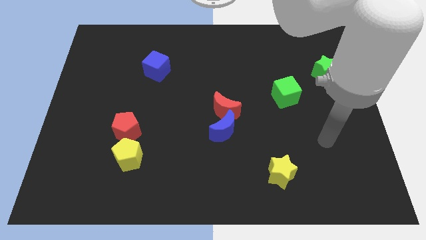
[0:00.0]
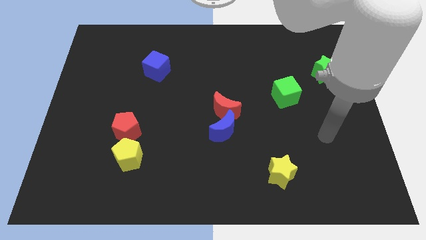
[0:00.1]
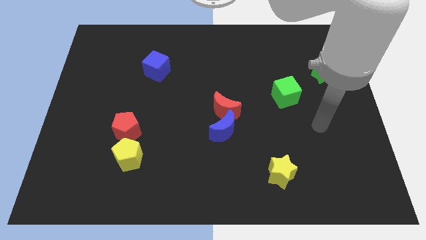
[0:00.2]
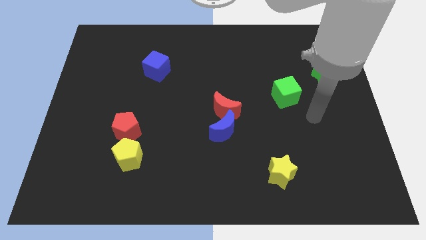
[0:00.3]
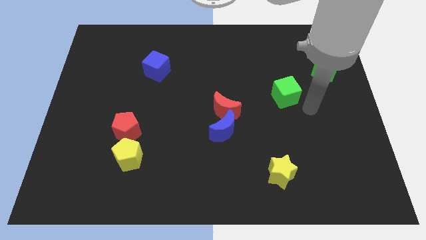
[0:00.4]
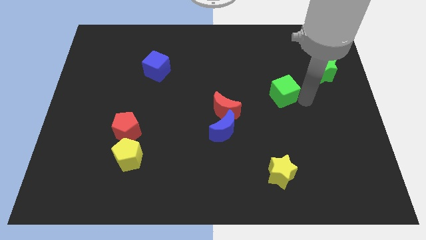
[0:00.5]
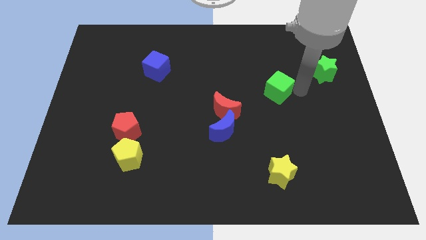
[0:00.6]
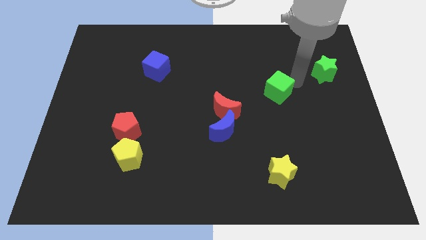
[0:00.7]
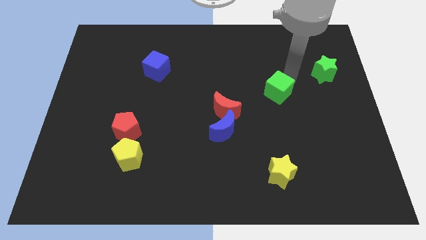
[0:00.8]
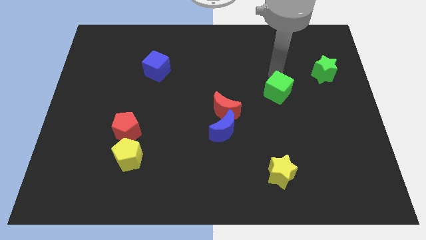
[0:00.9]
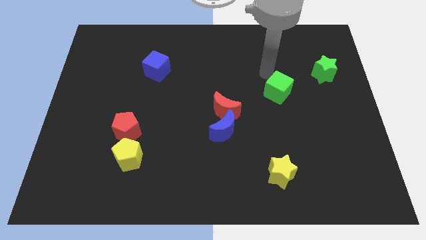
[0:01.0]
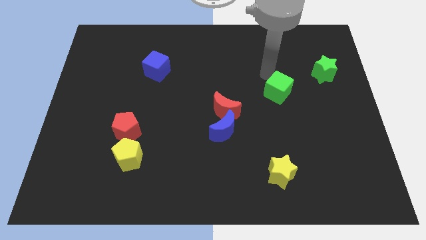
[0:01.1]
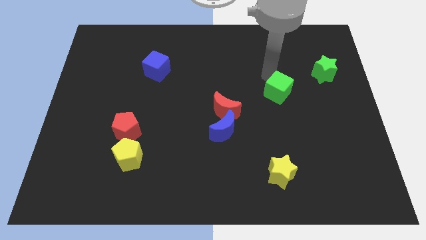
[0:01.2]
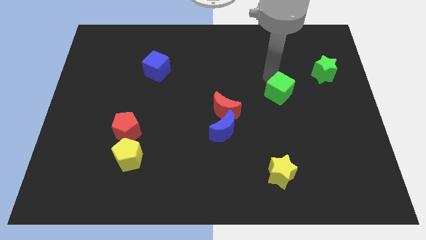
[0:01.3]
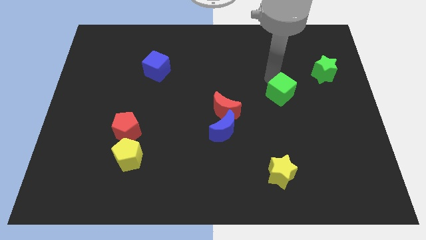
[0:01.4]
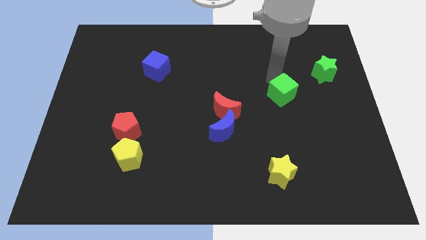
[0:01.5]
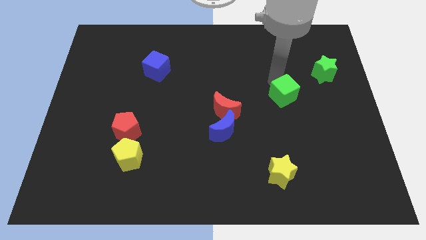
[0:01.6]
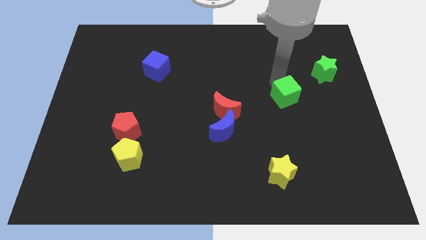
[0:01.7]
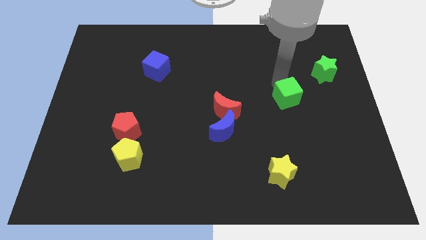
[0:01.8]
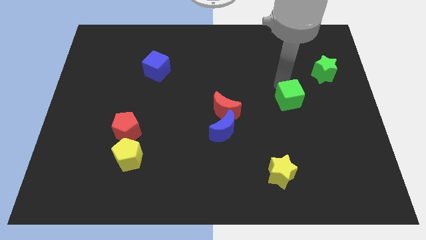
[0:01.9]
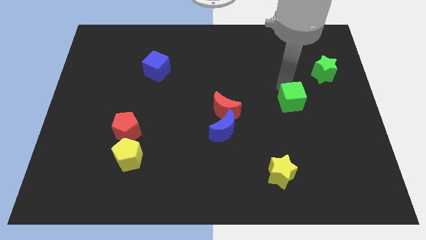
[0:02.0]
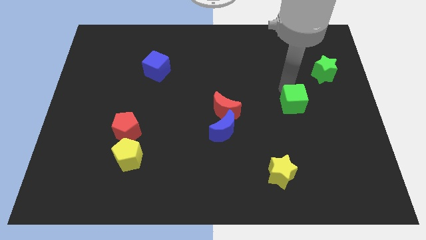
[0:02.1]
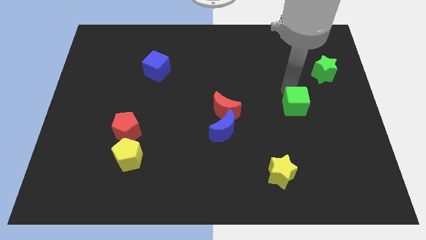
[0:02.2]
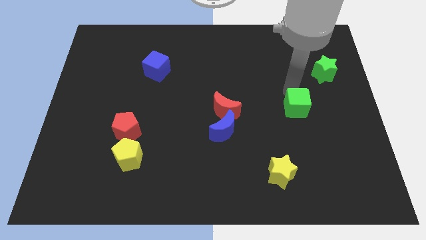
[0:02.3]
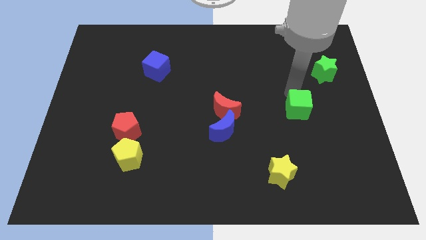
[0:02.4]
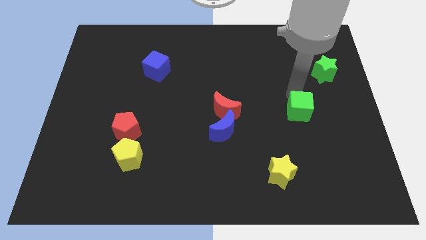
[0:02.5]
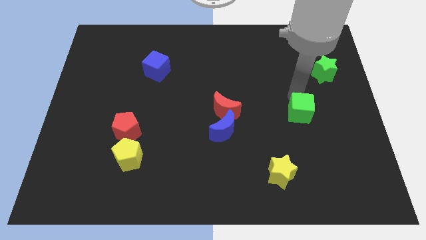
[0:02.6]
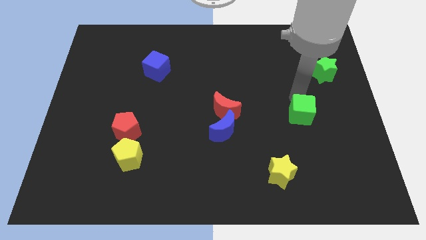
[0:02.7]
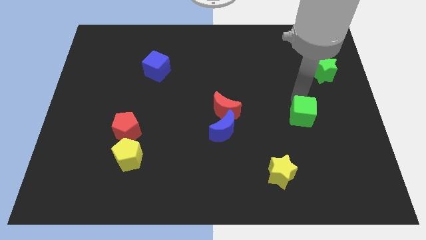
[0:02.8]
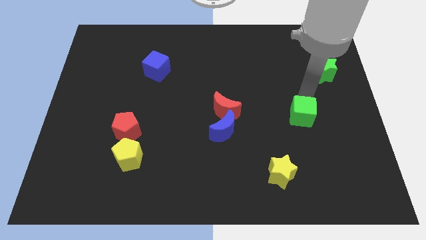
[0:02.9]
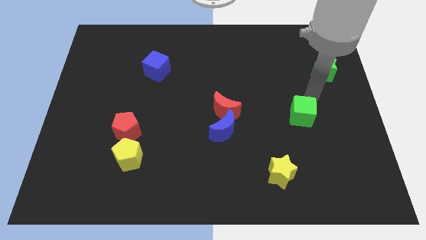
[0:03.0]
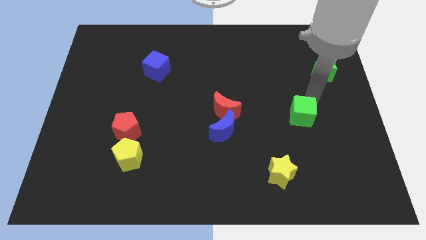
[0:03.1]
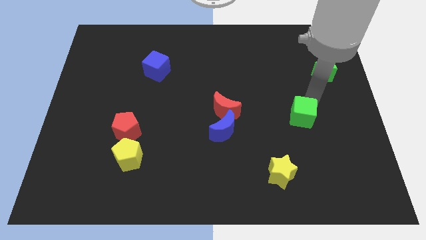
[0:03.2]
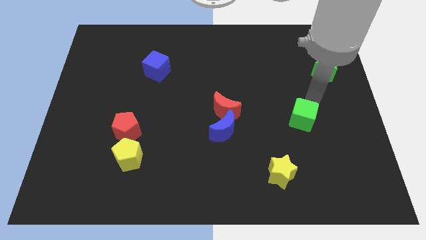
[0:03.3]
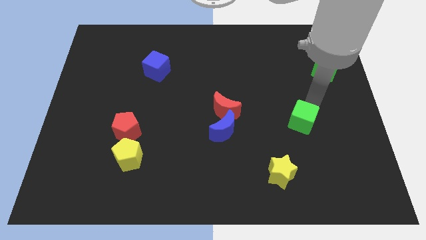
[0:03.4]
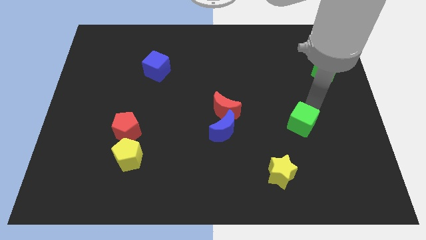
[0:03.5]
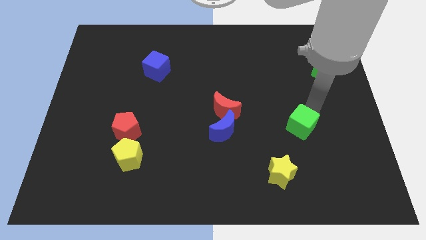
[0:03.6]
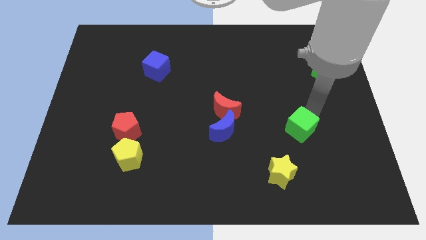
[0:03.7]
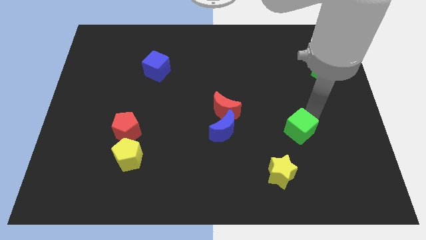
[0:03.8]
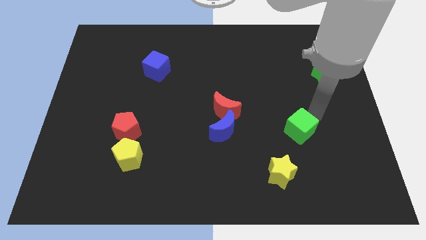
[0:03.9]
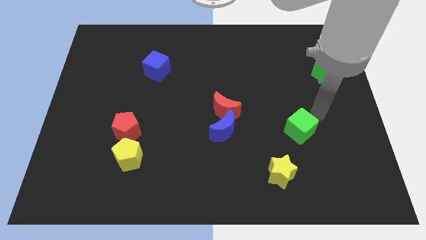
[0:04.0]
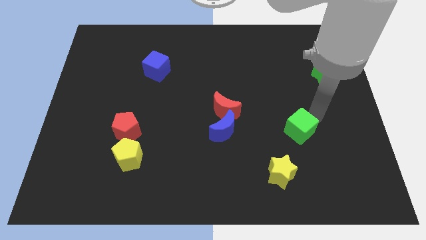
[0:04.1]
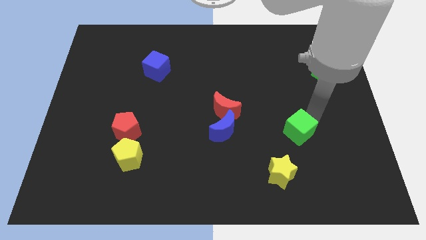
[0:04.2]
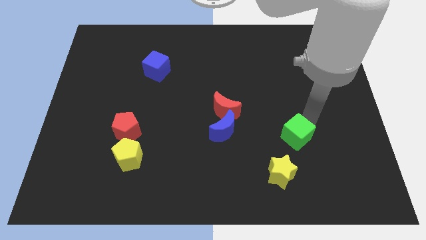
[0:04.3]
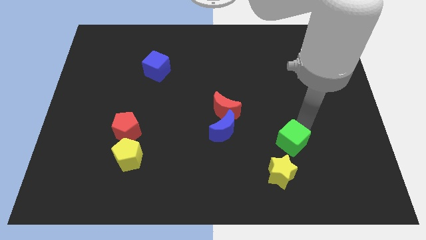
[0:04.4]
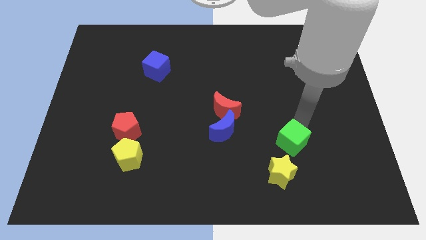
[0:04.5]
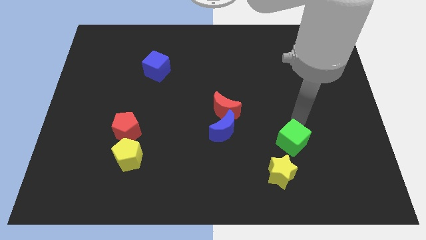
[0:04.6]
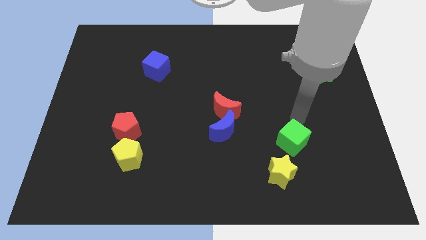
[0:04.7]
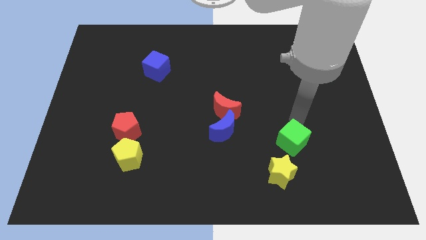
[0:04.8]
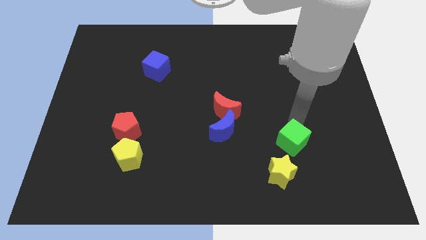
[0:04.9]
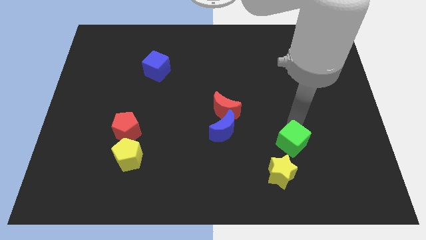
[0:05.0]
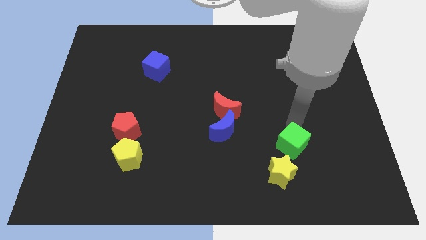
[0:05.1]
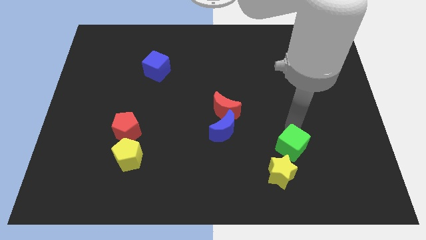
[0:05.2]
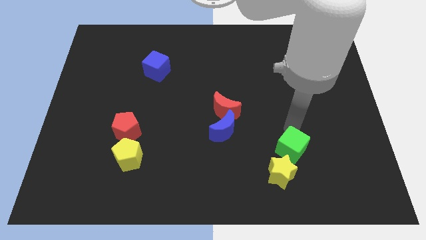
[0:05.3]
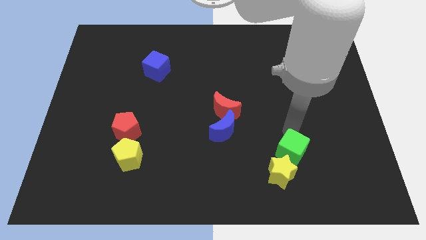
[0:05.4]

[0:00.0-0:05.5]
move the green cube to the yellow star

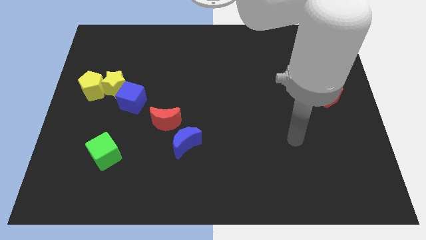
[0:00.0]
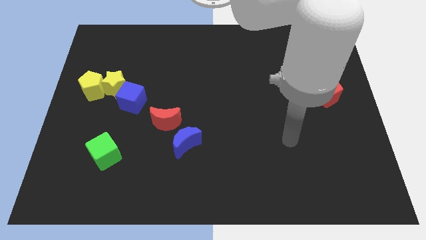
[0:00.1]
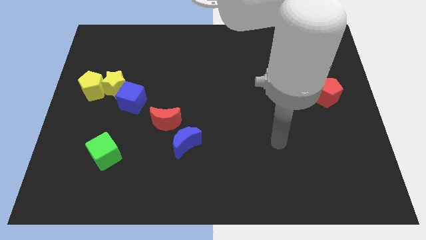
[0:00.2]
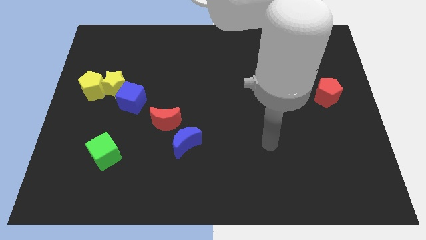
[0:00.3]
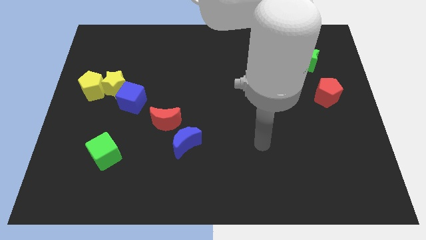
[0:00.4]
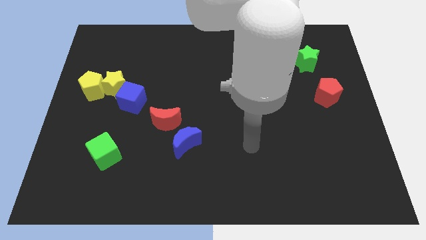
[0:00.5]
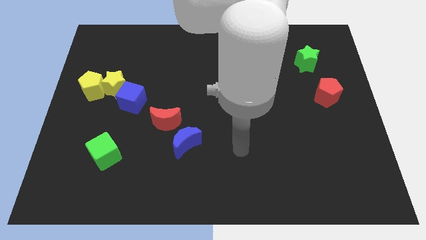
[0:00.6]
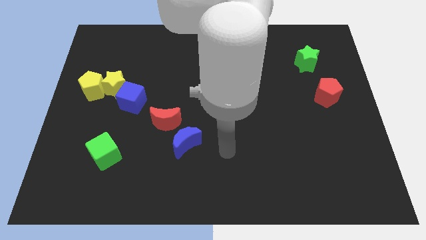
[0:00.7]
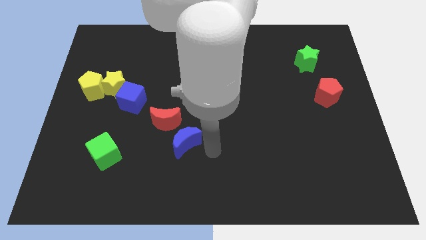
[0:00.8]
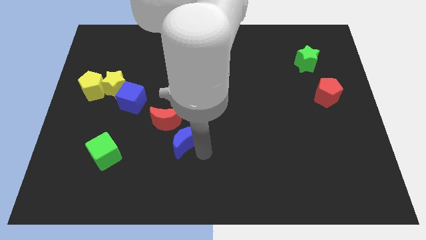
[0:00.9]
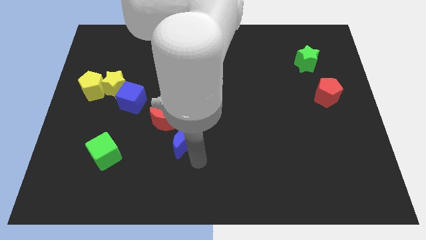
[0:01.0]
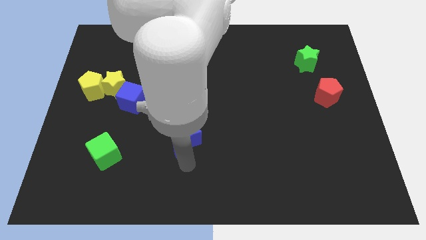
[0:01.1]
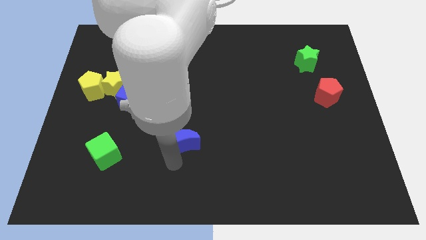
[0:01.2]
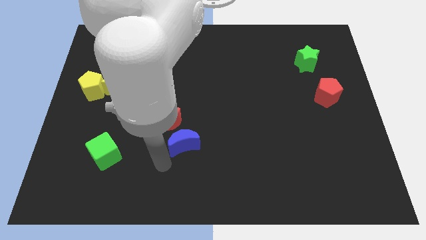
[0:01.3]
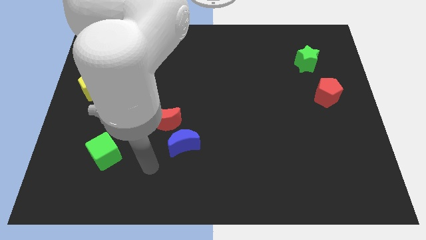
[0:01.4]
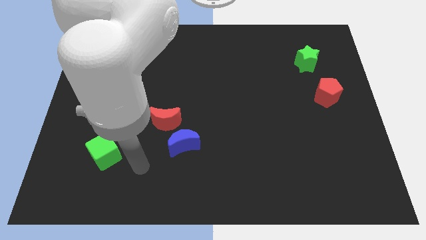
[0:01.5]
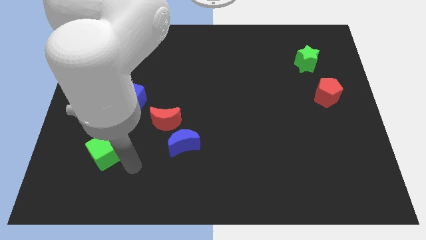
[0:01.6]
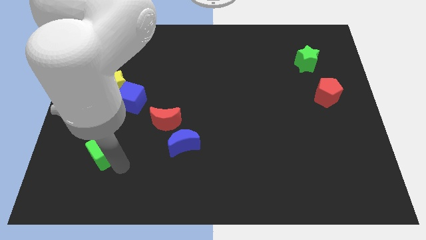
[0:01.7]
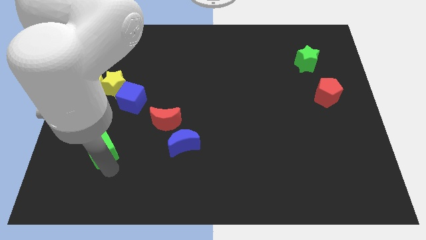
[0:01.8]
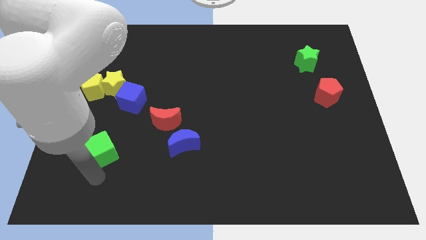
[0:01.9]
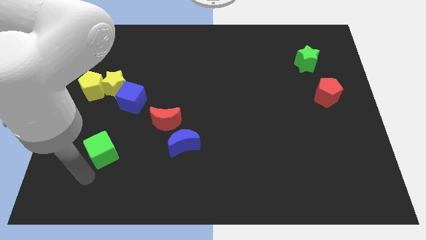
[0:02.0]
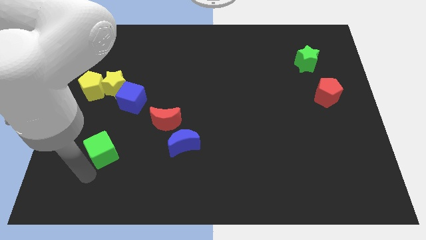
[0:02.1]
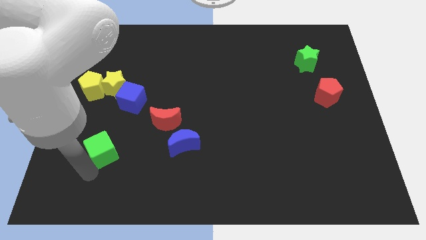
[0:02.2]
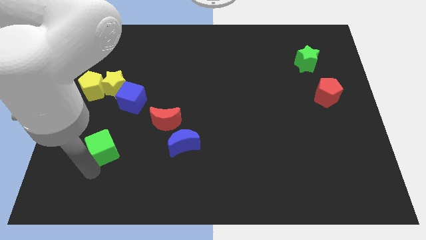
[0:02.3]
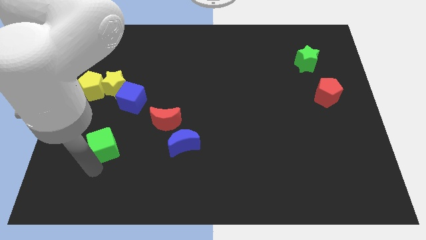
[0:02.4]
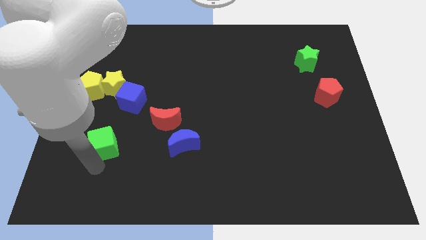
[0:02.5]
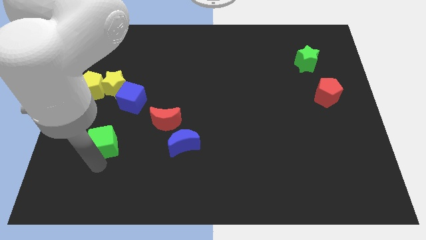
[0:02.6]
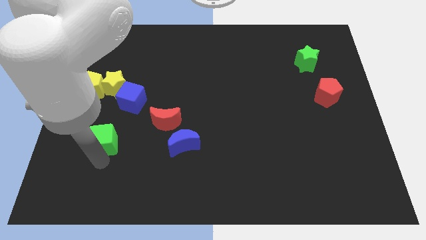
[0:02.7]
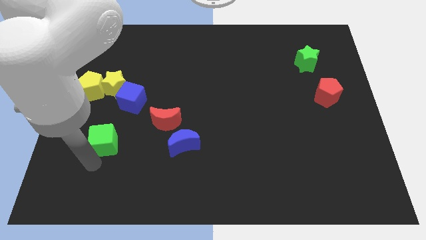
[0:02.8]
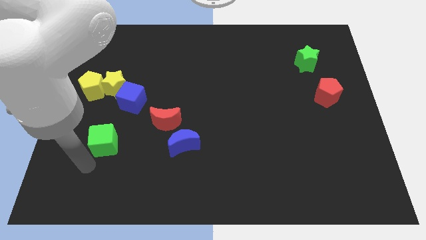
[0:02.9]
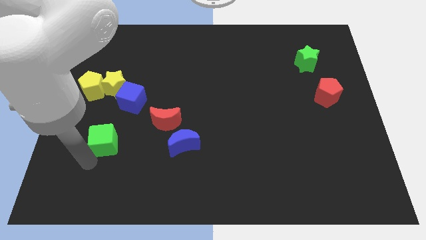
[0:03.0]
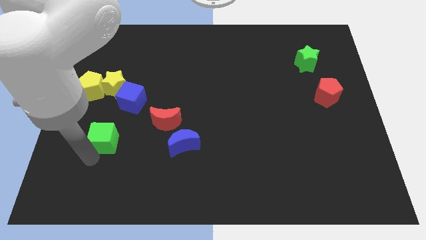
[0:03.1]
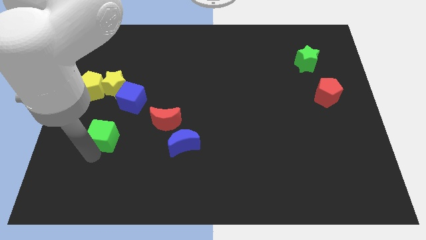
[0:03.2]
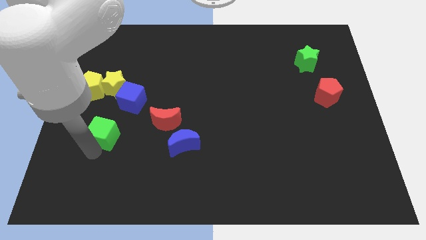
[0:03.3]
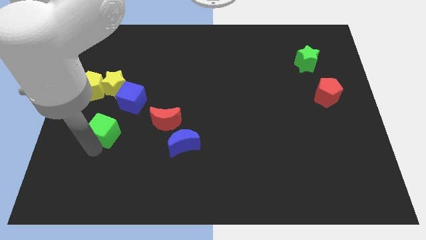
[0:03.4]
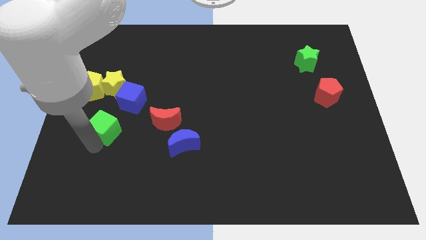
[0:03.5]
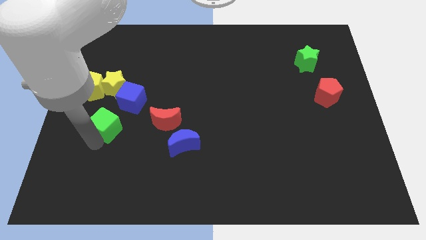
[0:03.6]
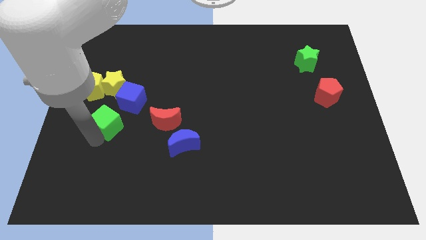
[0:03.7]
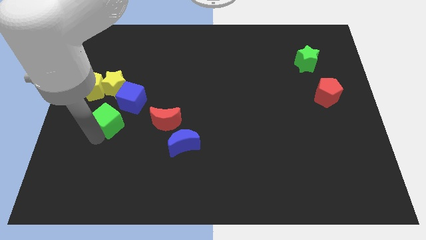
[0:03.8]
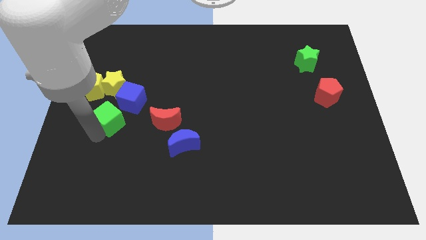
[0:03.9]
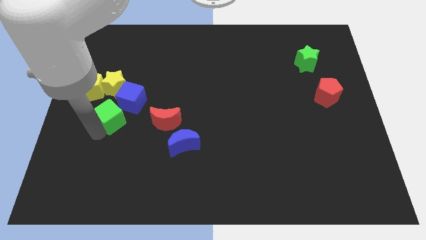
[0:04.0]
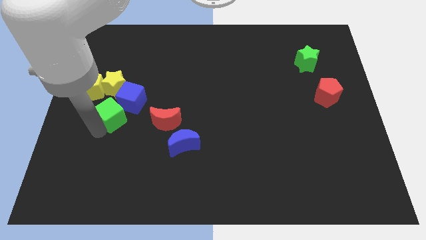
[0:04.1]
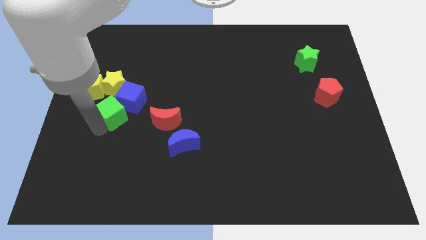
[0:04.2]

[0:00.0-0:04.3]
slide the green cube next to the blue cube
